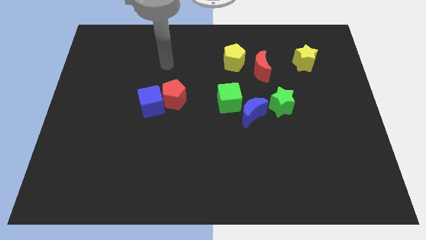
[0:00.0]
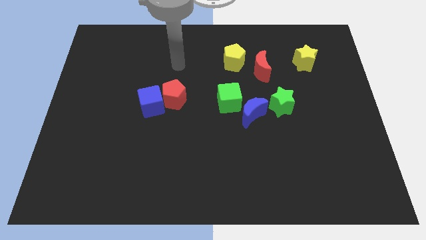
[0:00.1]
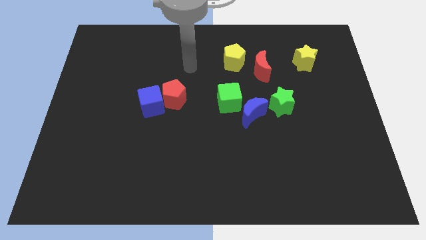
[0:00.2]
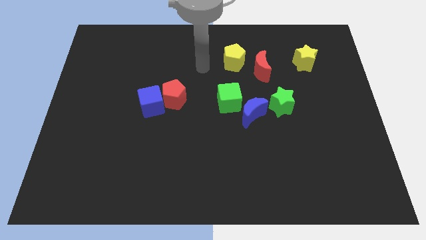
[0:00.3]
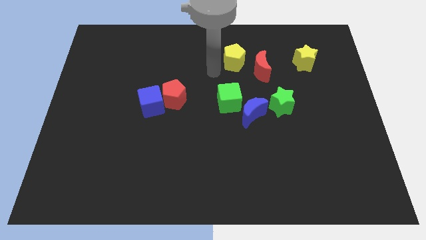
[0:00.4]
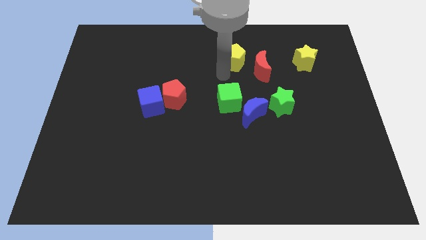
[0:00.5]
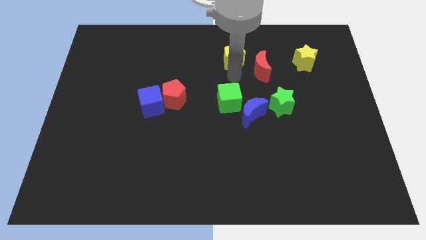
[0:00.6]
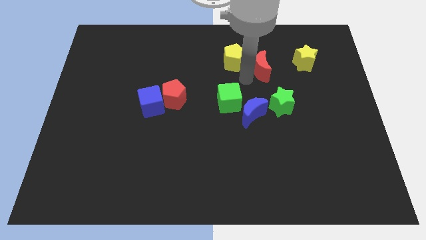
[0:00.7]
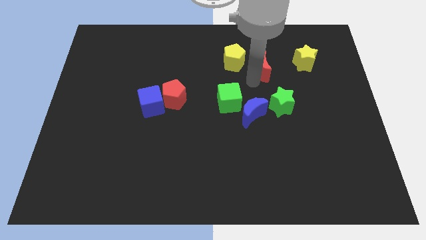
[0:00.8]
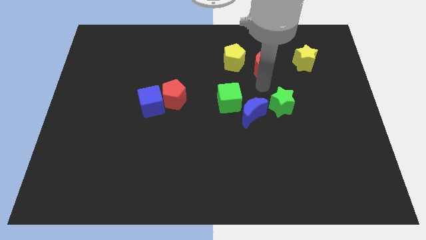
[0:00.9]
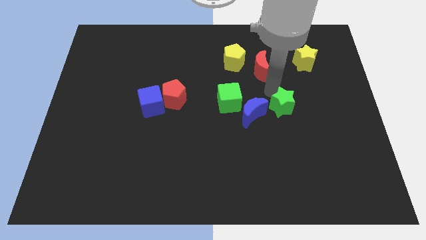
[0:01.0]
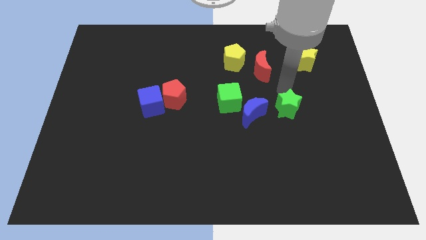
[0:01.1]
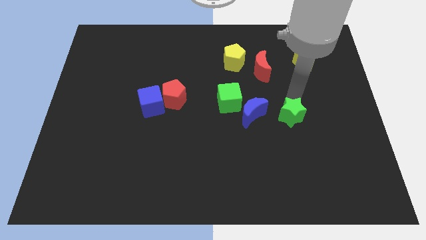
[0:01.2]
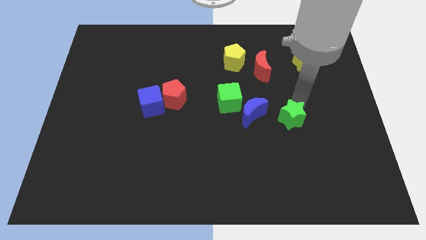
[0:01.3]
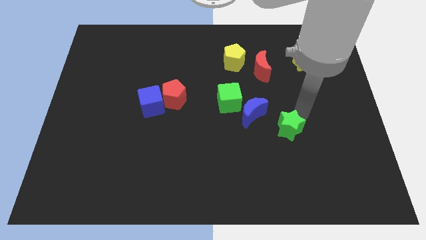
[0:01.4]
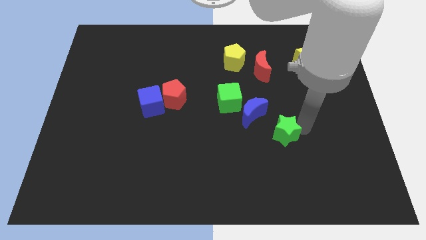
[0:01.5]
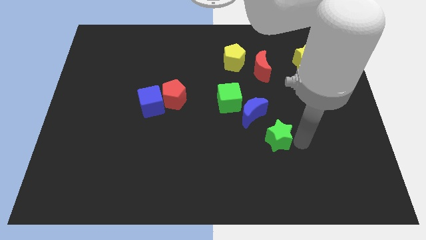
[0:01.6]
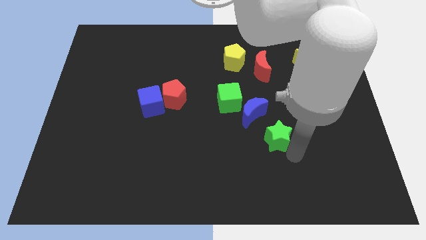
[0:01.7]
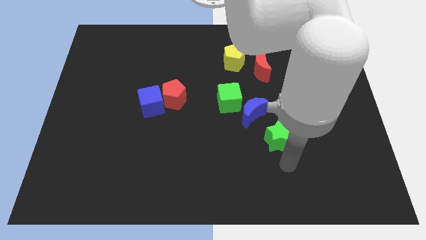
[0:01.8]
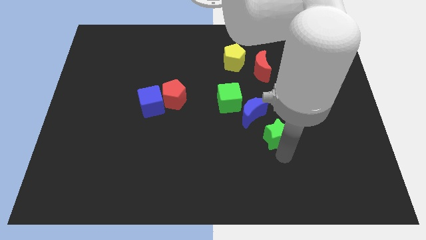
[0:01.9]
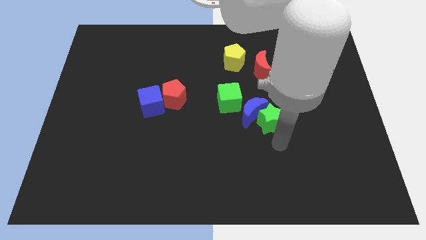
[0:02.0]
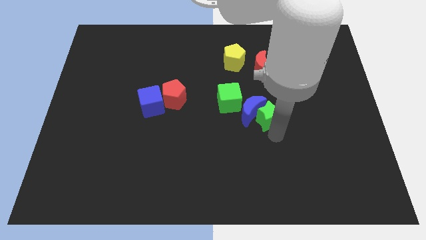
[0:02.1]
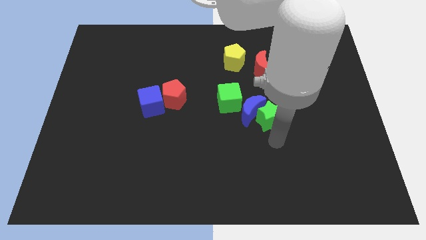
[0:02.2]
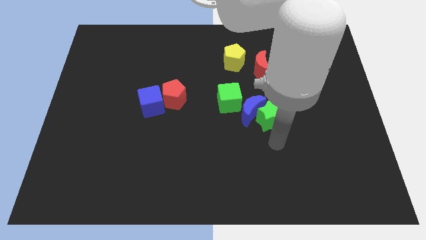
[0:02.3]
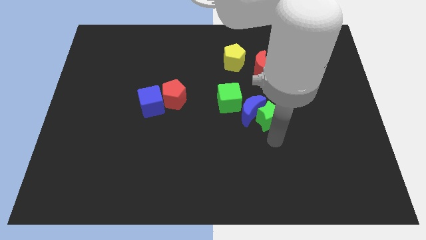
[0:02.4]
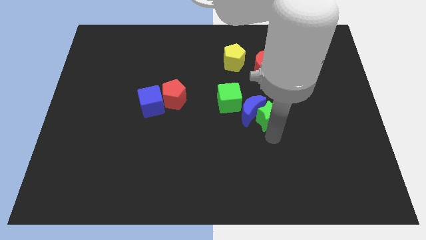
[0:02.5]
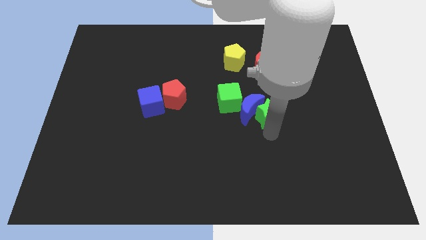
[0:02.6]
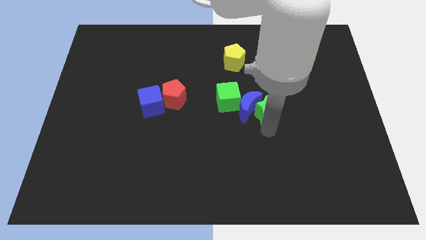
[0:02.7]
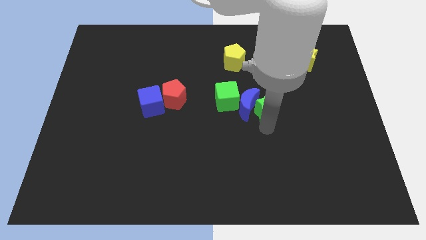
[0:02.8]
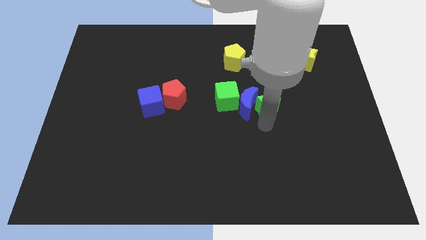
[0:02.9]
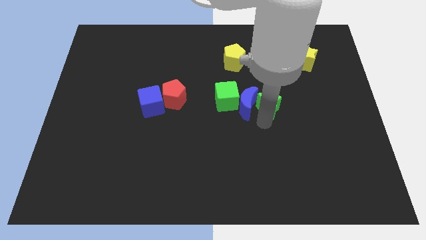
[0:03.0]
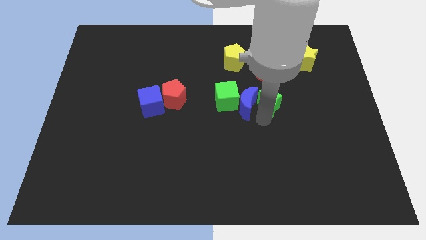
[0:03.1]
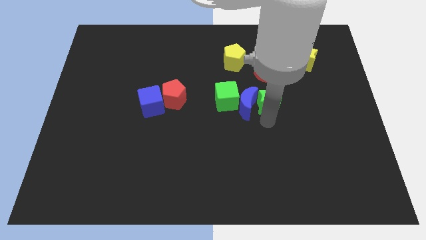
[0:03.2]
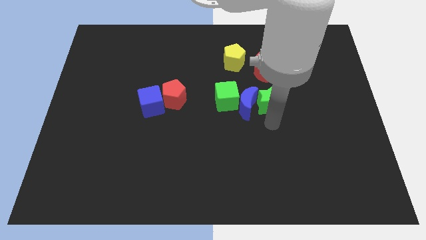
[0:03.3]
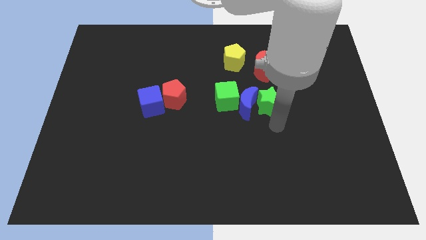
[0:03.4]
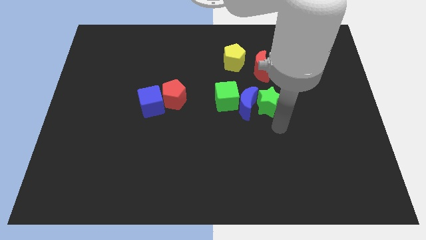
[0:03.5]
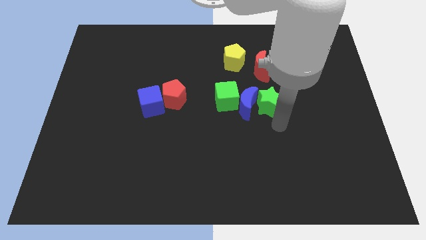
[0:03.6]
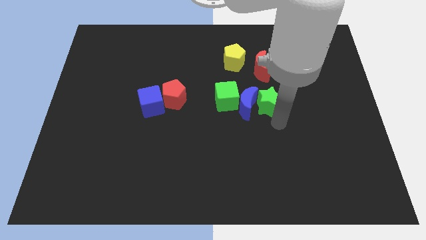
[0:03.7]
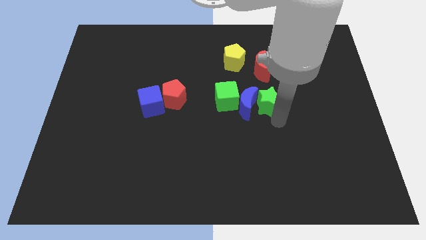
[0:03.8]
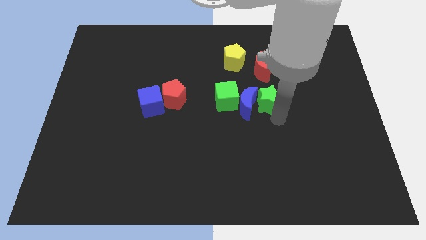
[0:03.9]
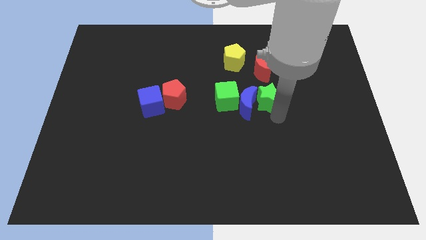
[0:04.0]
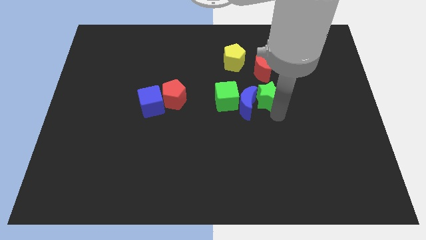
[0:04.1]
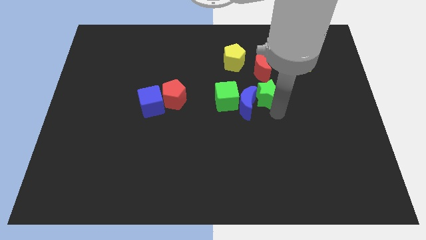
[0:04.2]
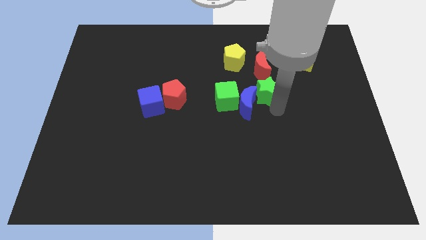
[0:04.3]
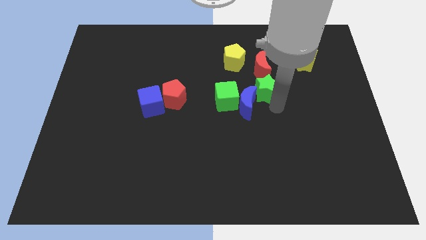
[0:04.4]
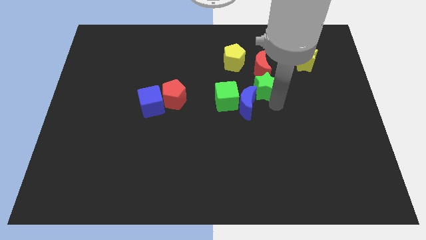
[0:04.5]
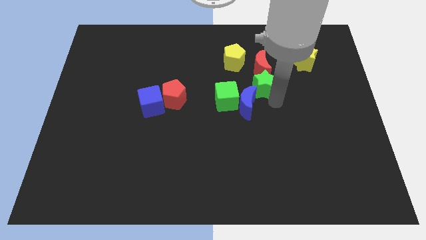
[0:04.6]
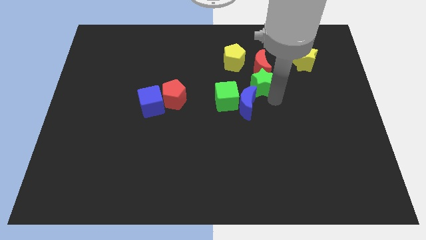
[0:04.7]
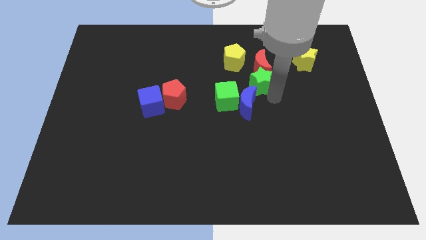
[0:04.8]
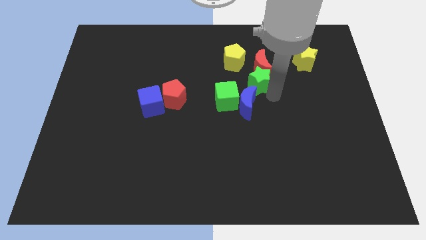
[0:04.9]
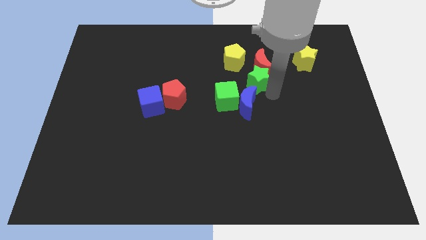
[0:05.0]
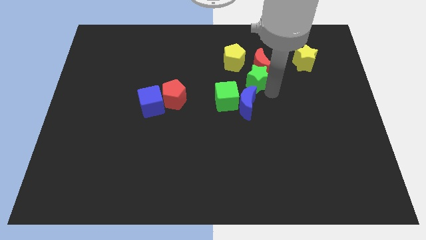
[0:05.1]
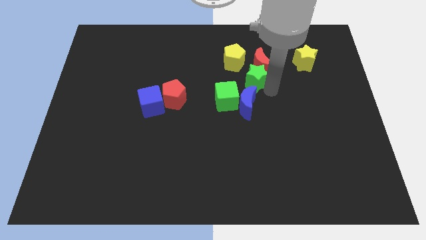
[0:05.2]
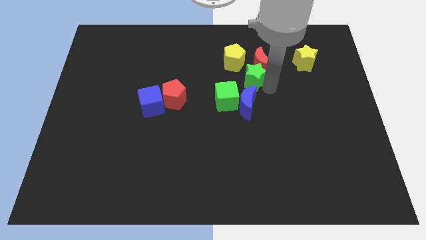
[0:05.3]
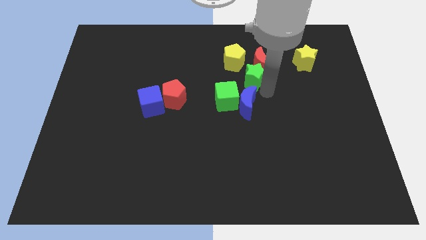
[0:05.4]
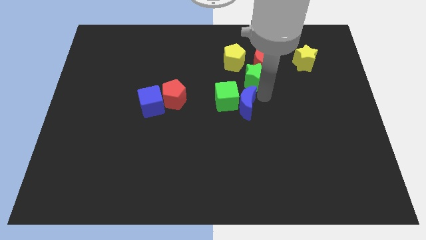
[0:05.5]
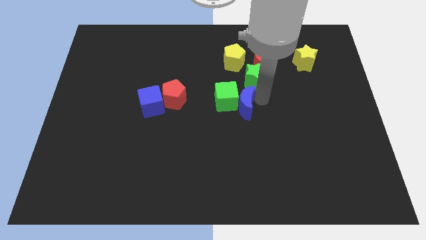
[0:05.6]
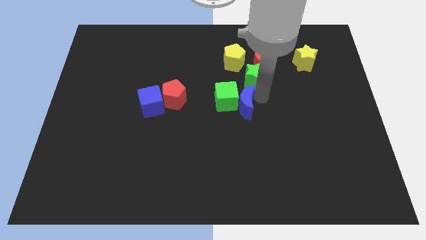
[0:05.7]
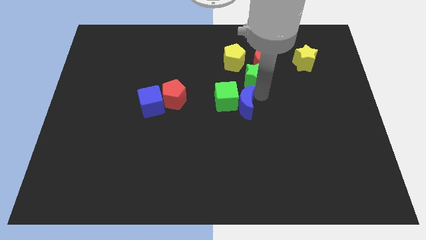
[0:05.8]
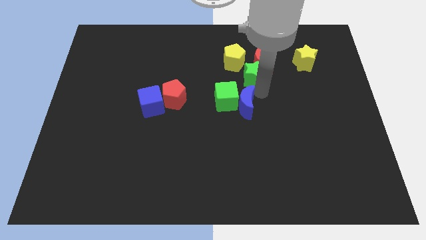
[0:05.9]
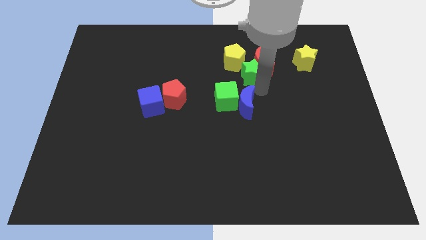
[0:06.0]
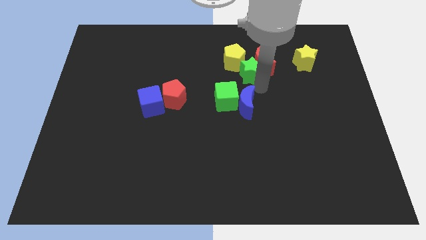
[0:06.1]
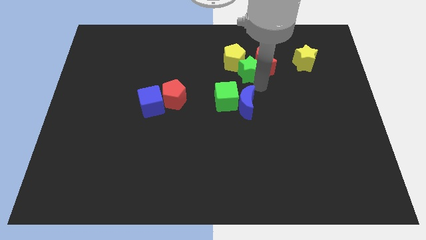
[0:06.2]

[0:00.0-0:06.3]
move the green star to the left of the yellow star
